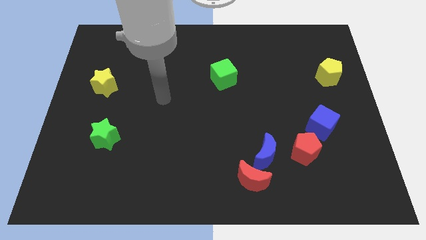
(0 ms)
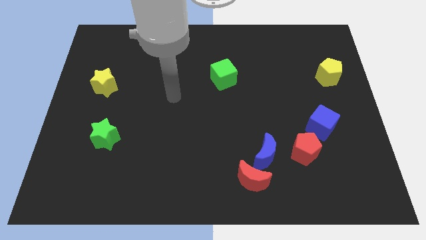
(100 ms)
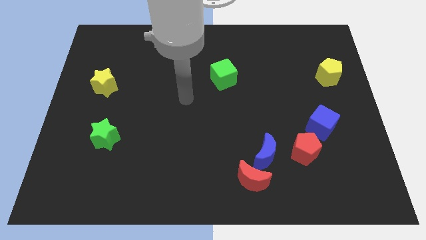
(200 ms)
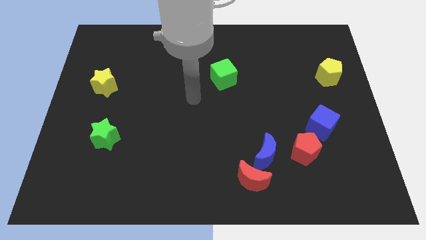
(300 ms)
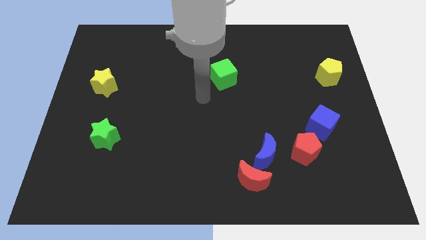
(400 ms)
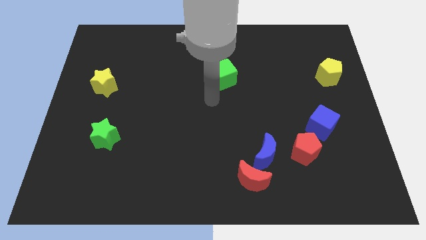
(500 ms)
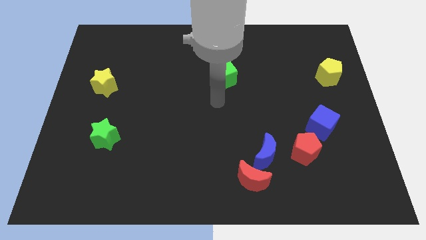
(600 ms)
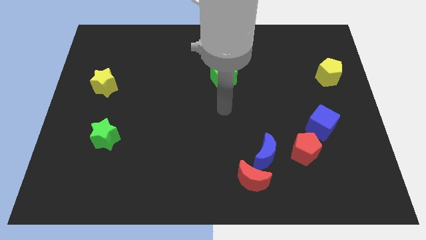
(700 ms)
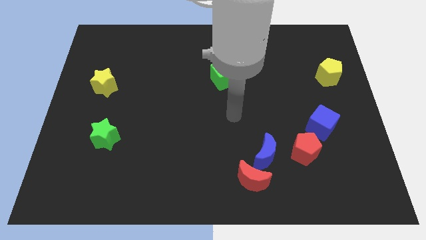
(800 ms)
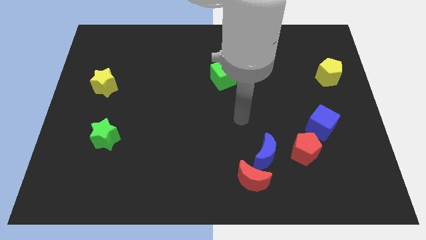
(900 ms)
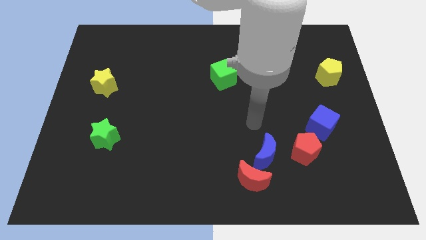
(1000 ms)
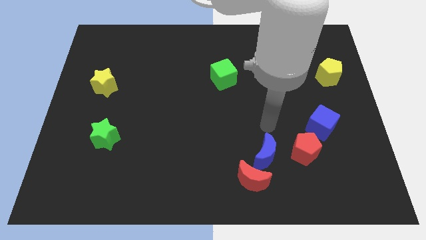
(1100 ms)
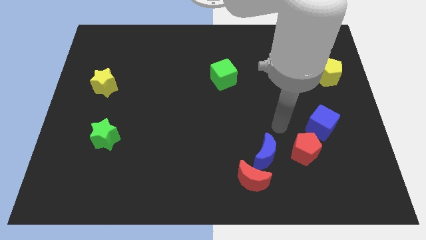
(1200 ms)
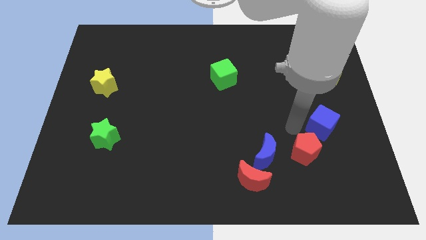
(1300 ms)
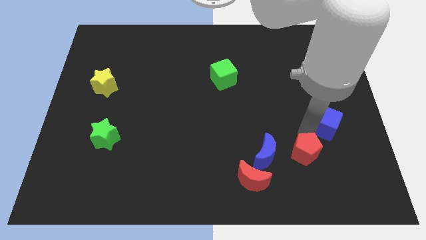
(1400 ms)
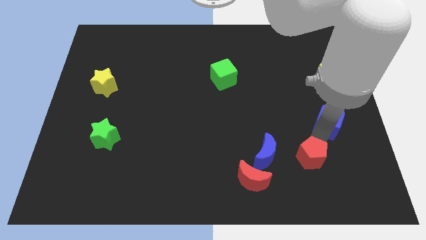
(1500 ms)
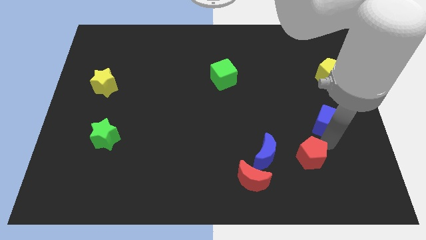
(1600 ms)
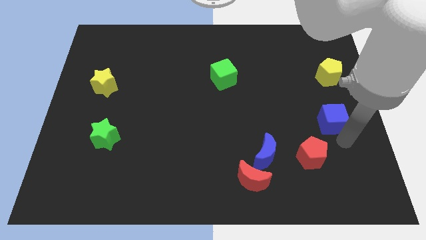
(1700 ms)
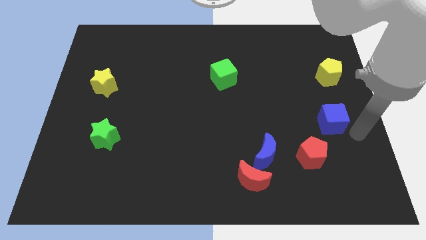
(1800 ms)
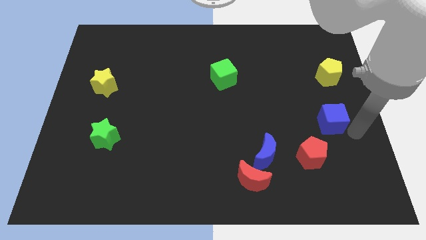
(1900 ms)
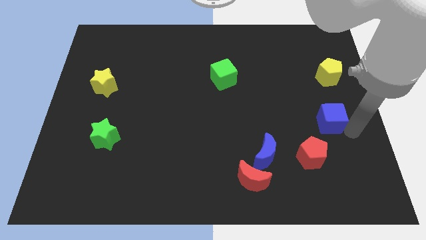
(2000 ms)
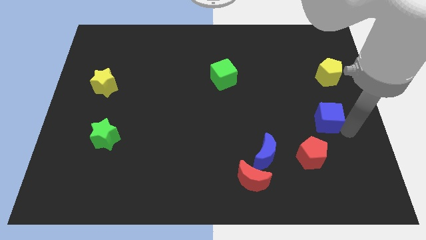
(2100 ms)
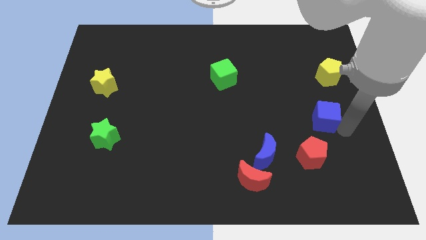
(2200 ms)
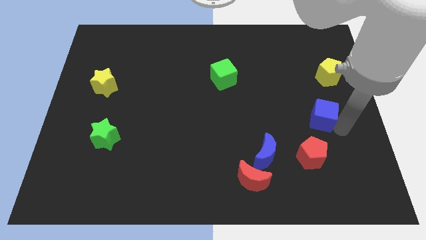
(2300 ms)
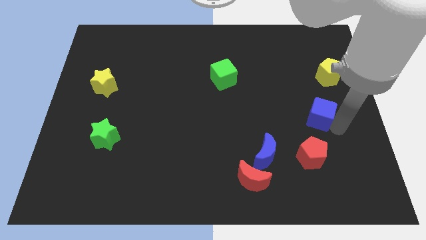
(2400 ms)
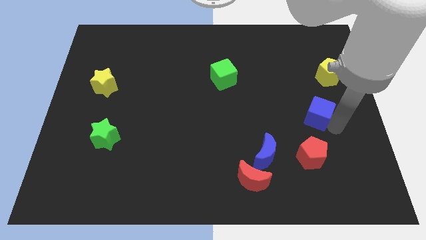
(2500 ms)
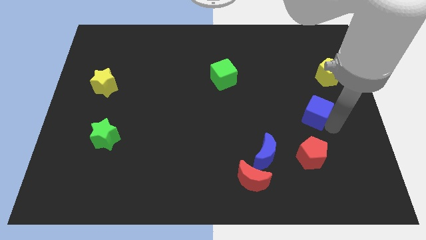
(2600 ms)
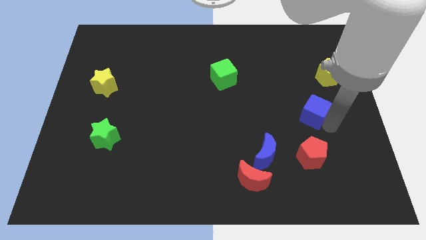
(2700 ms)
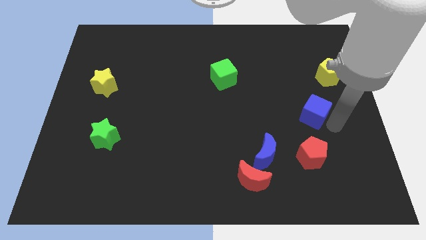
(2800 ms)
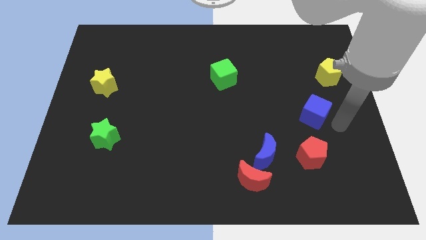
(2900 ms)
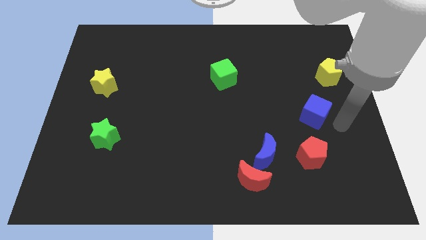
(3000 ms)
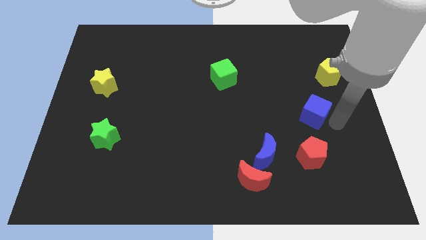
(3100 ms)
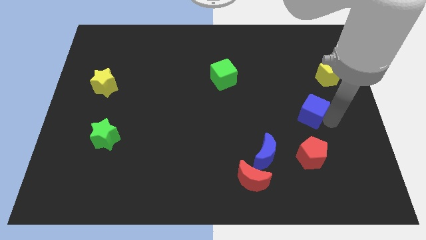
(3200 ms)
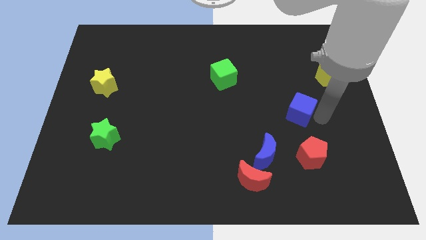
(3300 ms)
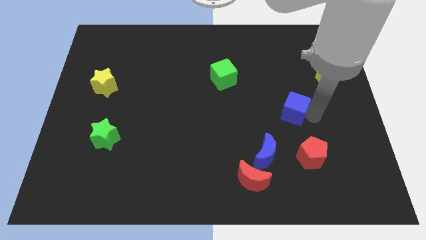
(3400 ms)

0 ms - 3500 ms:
slightly move the blue cube diagonally upwards and to the left

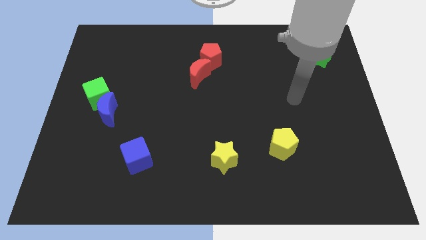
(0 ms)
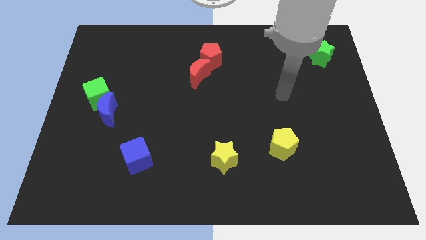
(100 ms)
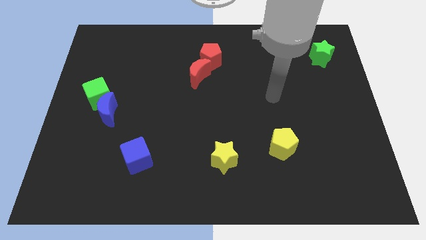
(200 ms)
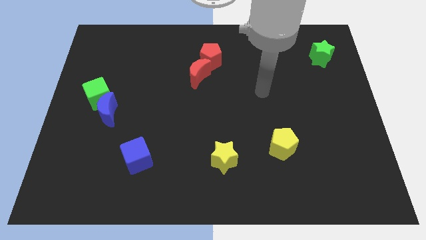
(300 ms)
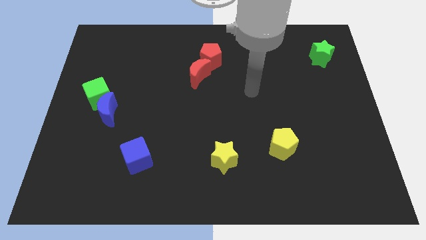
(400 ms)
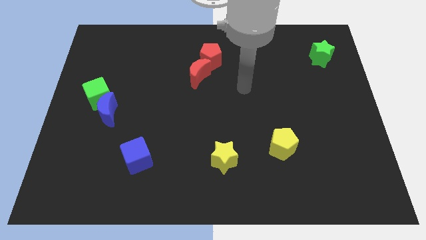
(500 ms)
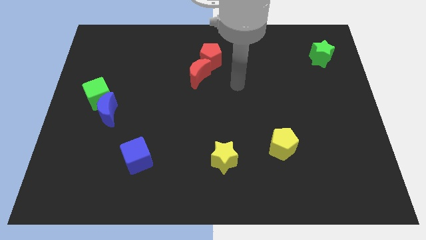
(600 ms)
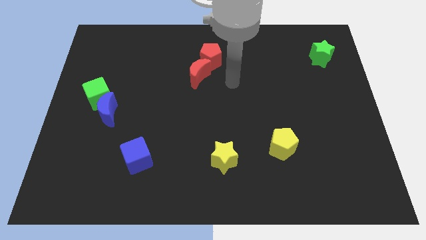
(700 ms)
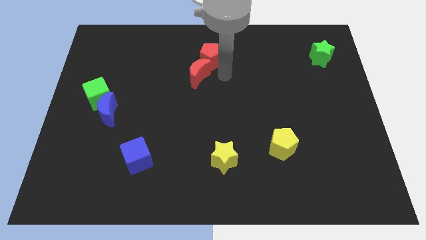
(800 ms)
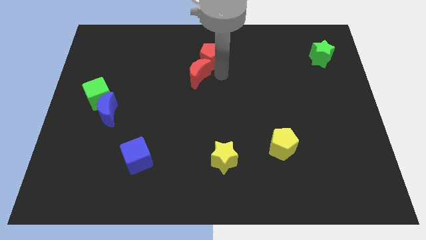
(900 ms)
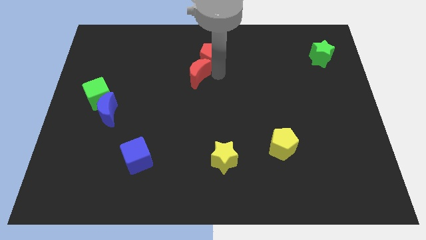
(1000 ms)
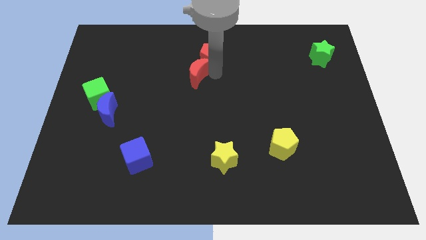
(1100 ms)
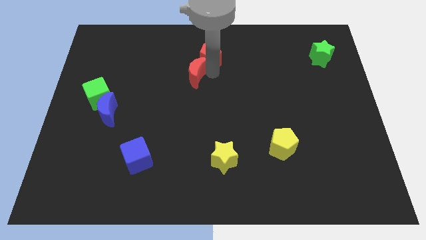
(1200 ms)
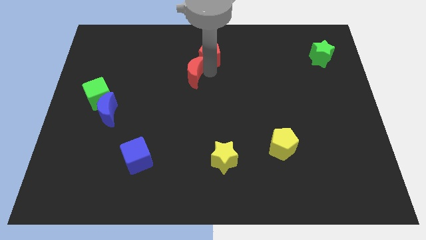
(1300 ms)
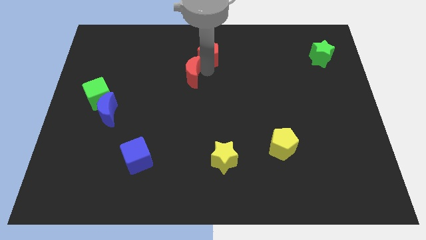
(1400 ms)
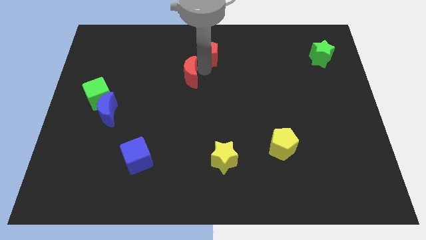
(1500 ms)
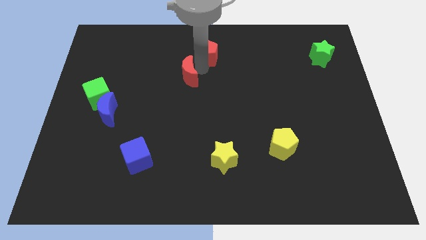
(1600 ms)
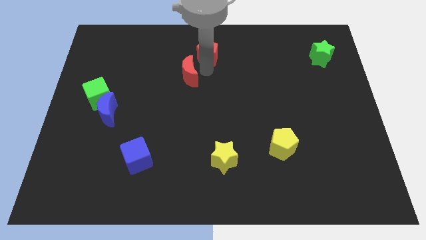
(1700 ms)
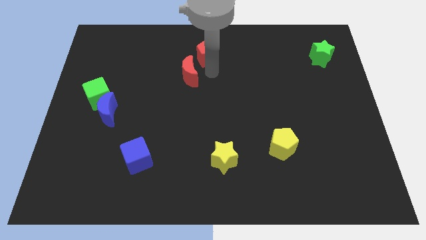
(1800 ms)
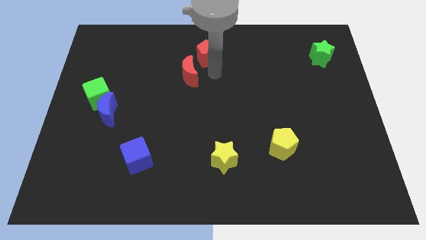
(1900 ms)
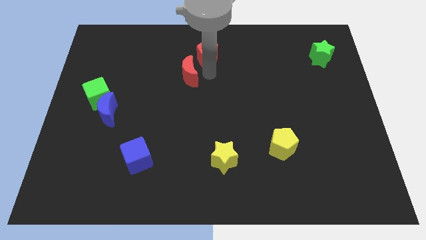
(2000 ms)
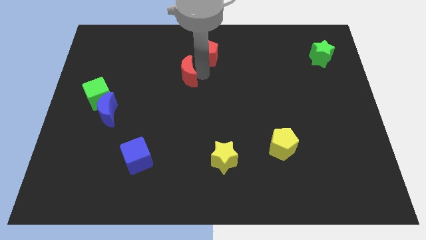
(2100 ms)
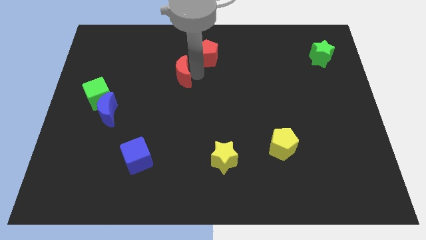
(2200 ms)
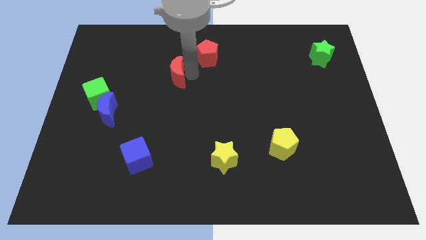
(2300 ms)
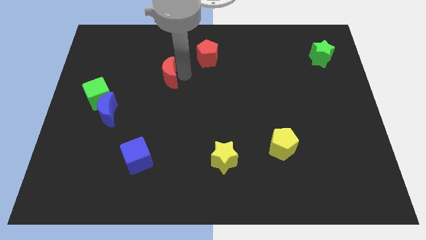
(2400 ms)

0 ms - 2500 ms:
move the red moon a little bit left

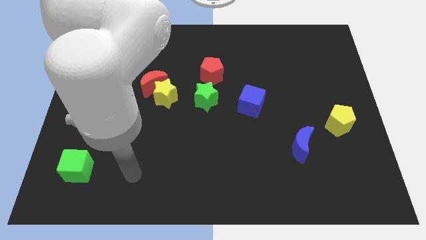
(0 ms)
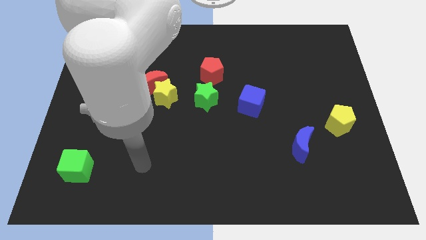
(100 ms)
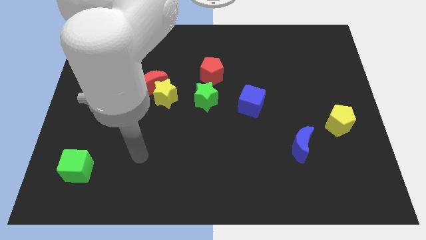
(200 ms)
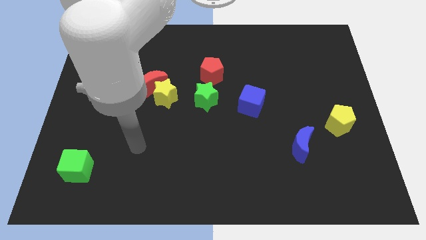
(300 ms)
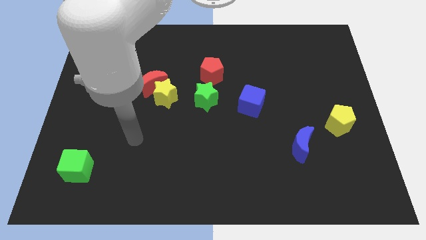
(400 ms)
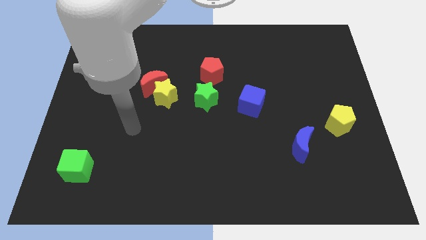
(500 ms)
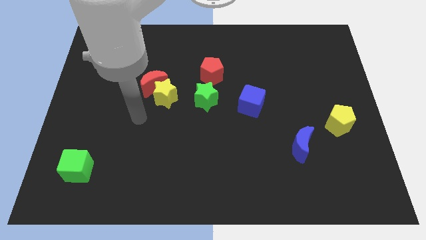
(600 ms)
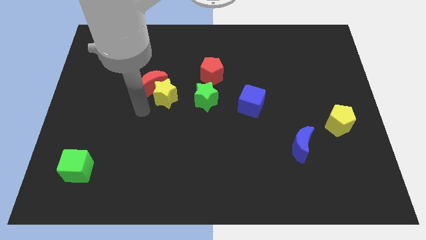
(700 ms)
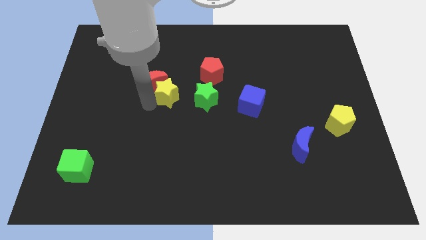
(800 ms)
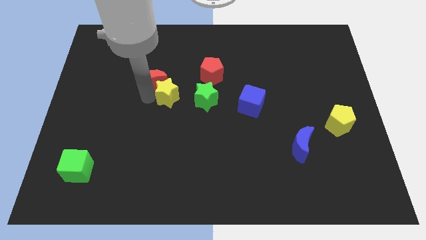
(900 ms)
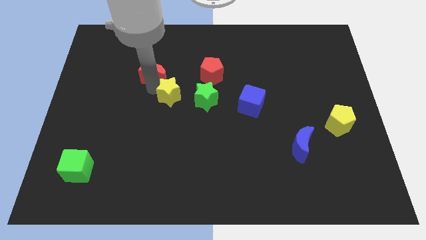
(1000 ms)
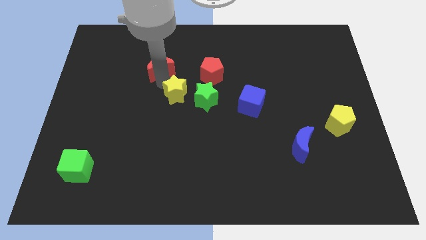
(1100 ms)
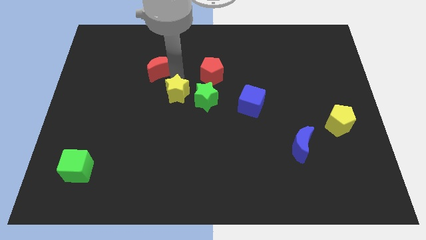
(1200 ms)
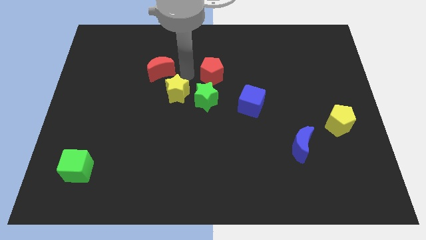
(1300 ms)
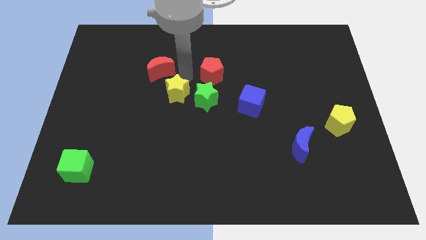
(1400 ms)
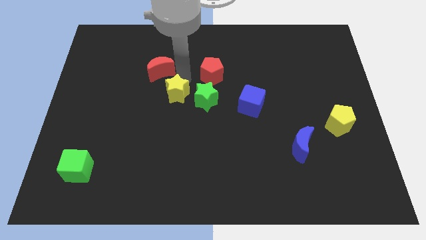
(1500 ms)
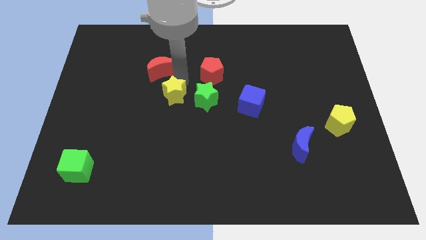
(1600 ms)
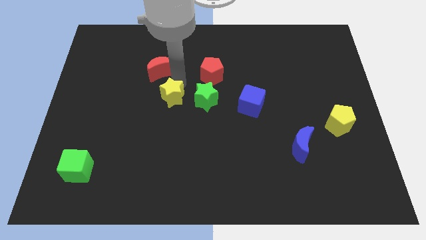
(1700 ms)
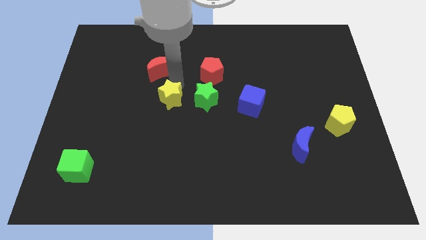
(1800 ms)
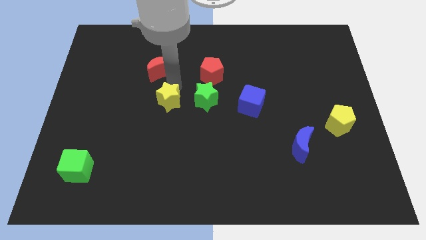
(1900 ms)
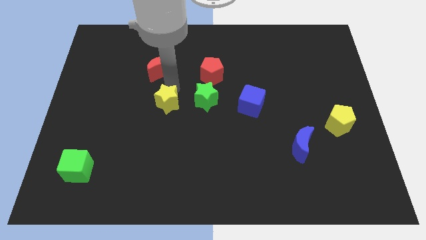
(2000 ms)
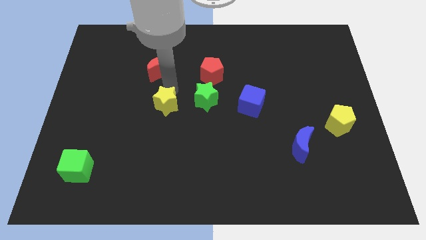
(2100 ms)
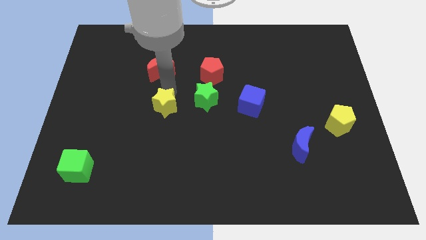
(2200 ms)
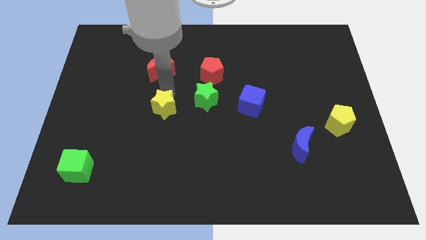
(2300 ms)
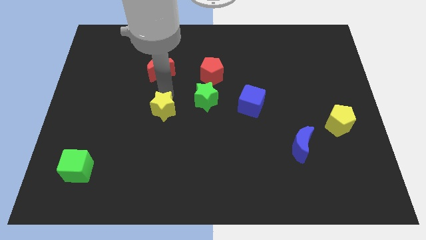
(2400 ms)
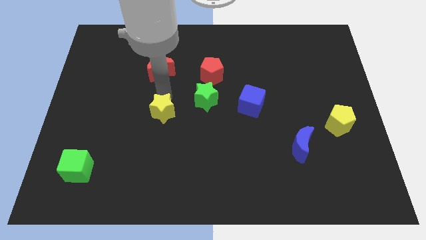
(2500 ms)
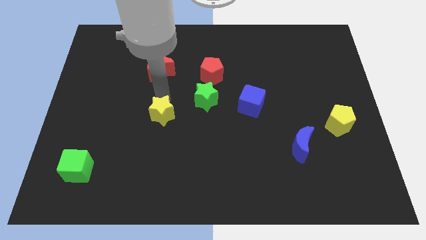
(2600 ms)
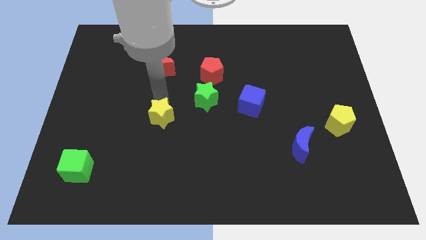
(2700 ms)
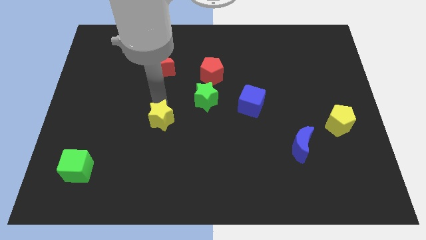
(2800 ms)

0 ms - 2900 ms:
push the yellow star slightly downwards
